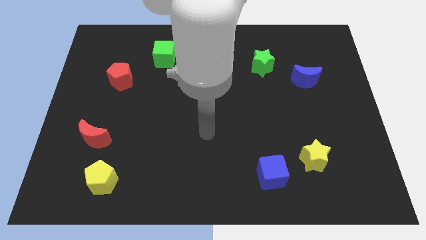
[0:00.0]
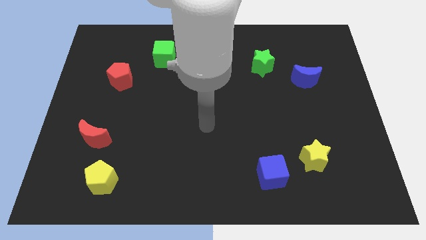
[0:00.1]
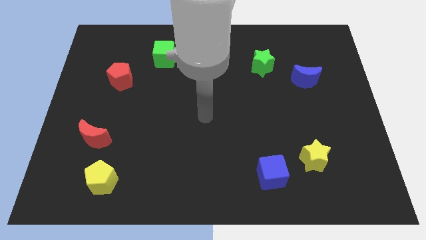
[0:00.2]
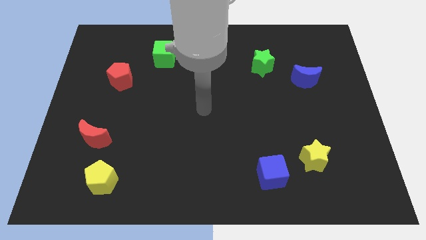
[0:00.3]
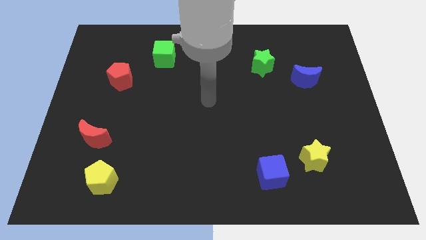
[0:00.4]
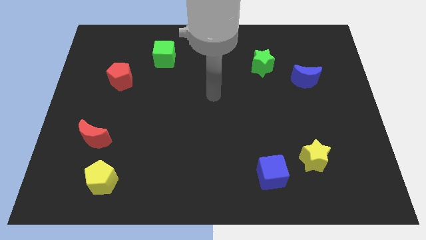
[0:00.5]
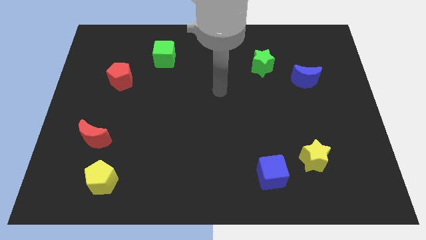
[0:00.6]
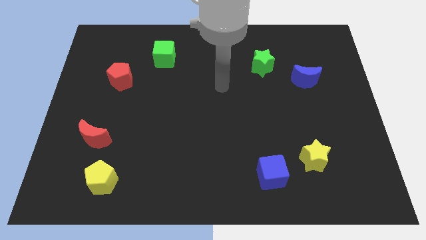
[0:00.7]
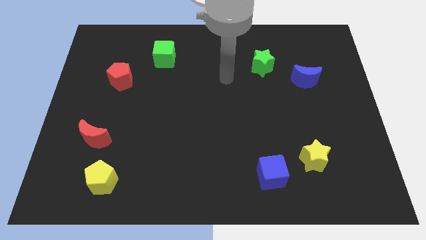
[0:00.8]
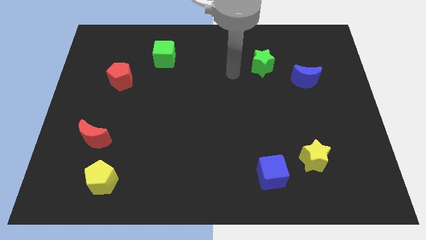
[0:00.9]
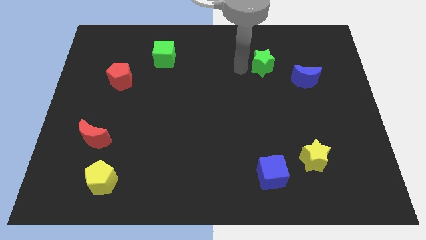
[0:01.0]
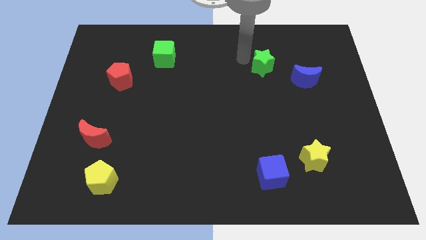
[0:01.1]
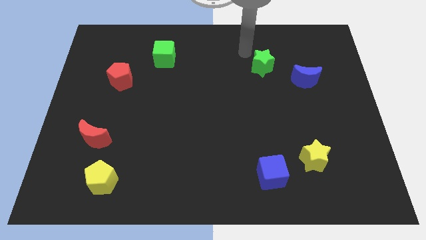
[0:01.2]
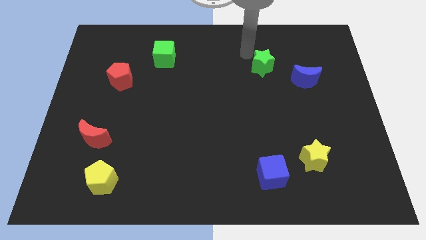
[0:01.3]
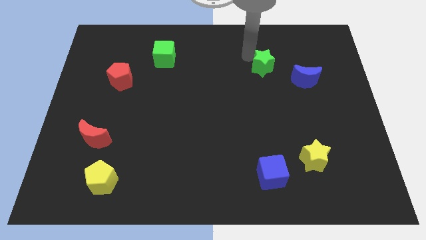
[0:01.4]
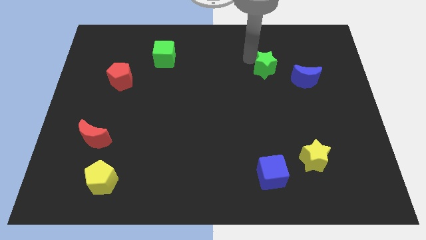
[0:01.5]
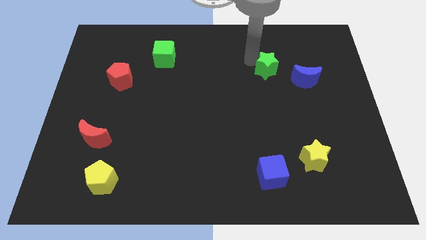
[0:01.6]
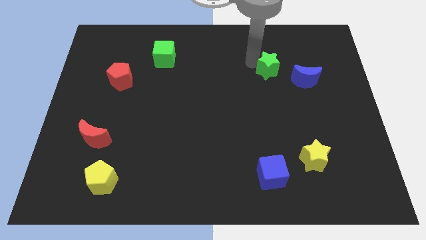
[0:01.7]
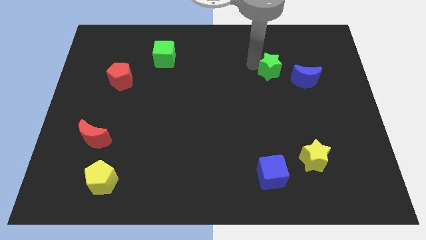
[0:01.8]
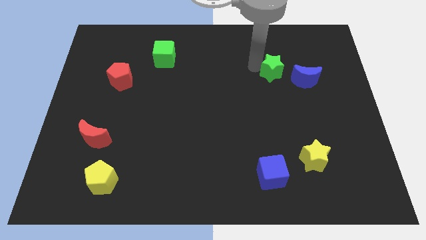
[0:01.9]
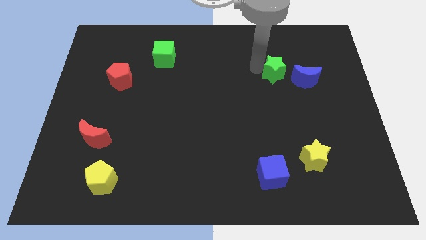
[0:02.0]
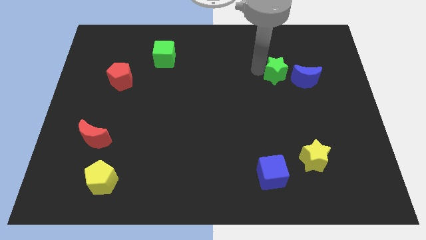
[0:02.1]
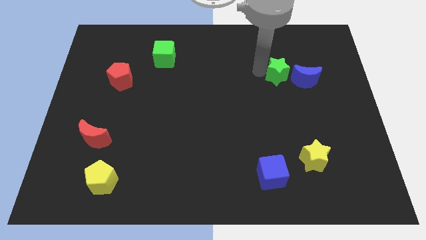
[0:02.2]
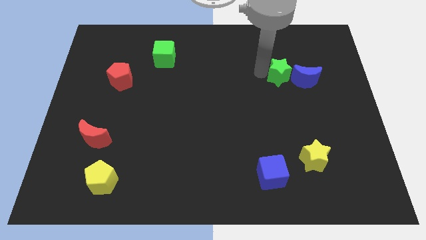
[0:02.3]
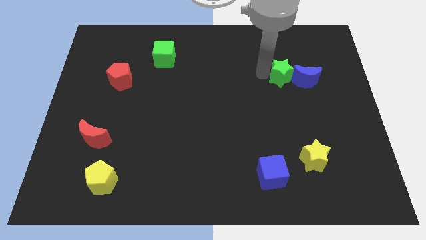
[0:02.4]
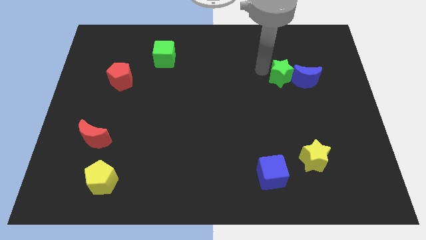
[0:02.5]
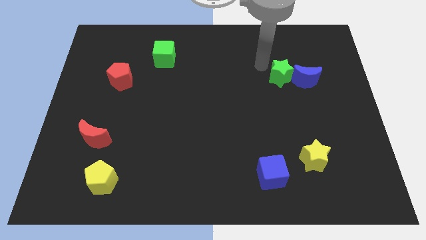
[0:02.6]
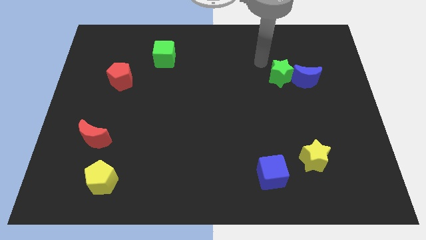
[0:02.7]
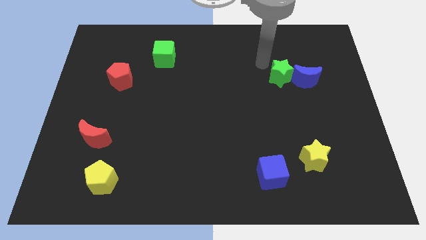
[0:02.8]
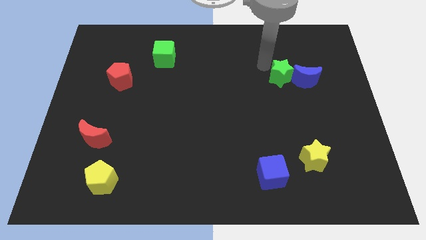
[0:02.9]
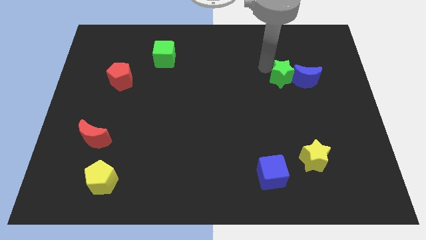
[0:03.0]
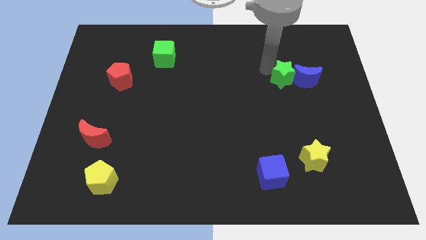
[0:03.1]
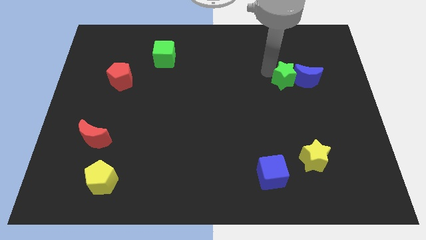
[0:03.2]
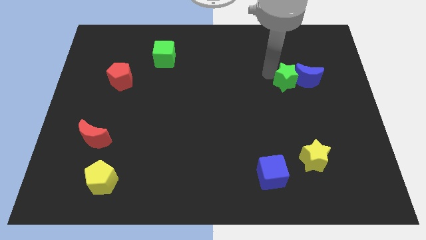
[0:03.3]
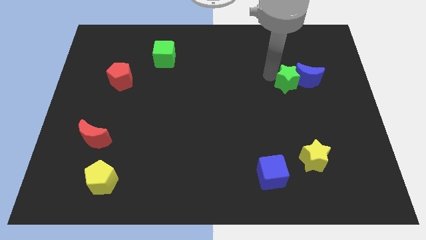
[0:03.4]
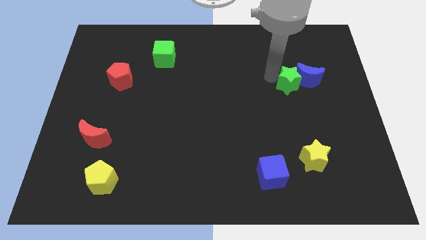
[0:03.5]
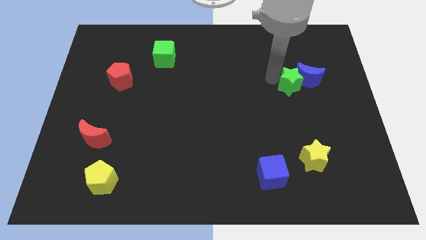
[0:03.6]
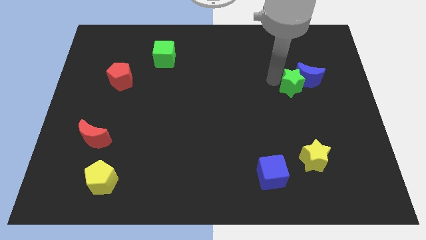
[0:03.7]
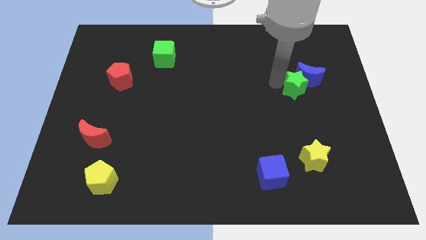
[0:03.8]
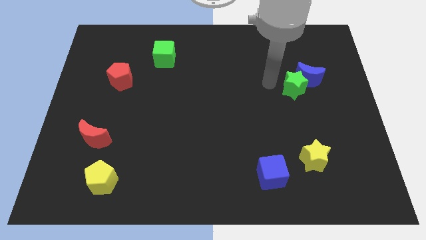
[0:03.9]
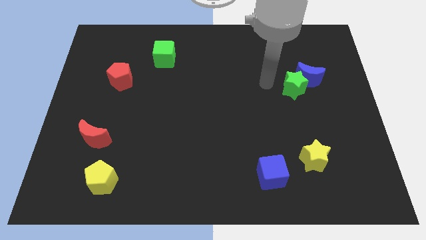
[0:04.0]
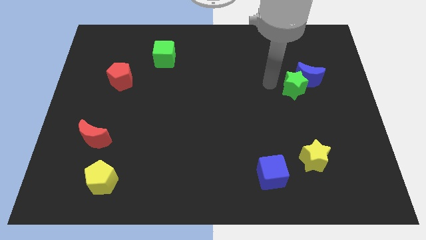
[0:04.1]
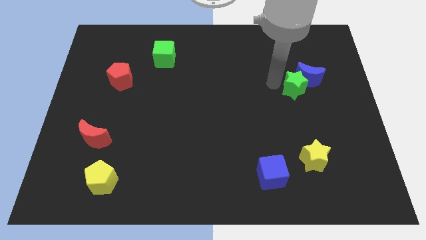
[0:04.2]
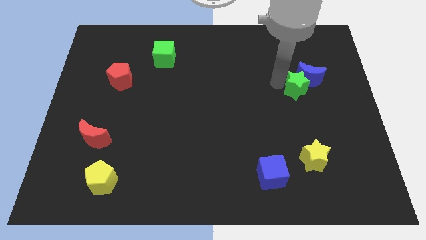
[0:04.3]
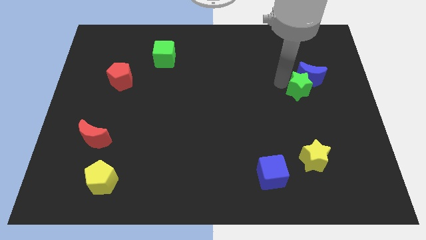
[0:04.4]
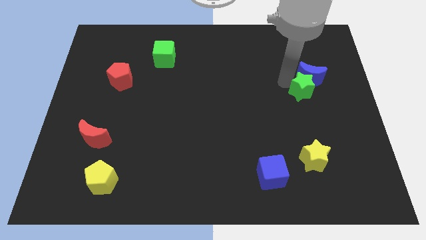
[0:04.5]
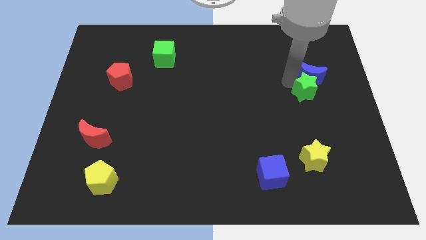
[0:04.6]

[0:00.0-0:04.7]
move the green star to the bottom right of the blue moon

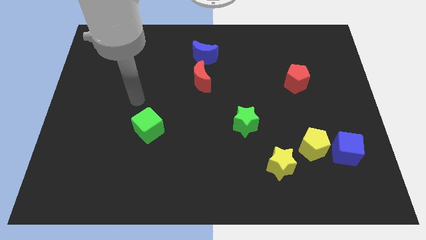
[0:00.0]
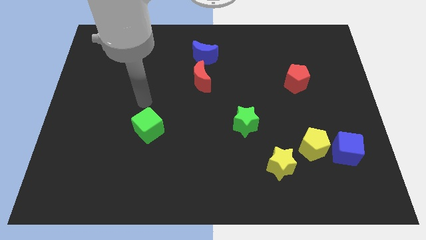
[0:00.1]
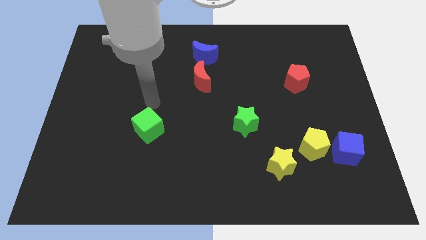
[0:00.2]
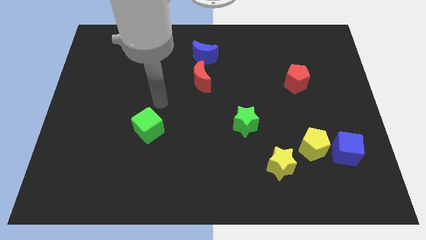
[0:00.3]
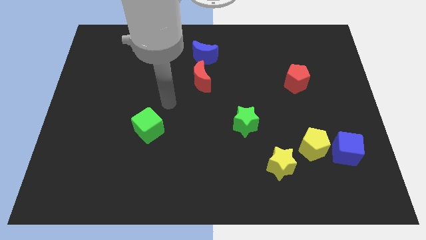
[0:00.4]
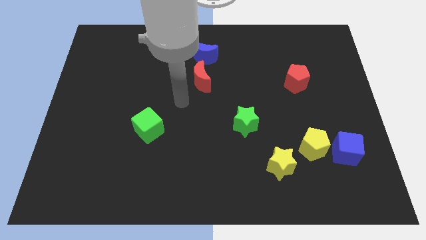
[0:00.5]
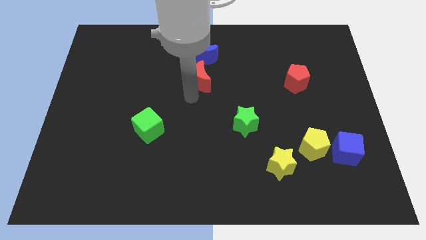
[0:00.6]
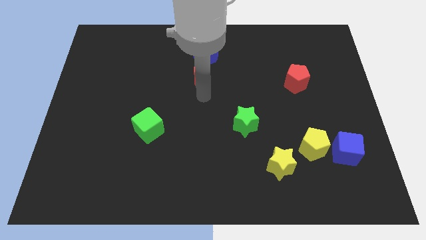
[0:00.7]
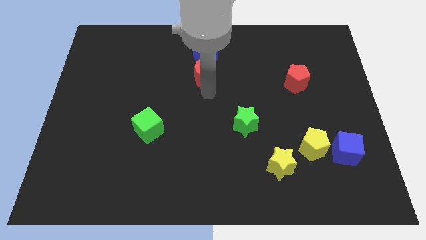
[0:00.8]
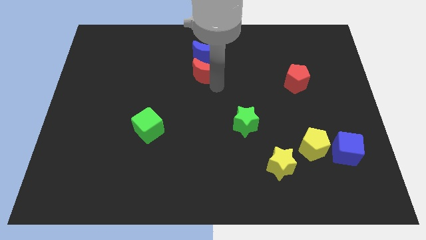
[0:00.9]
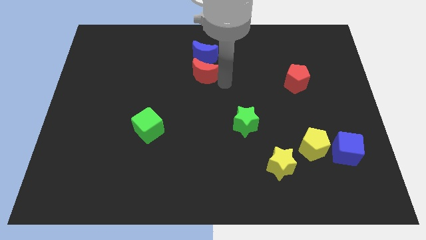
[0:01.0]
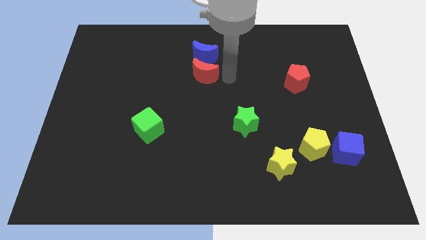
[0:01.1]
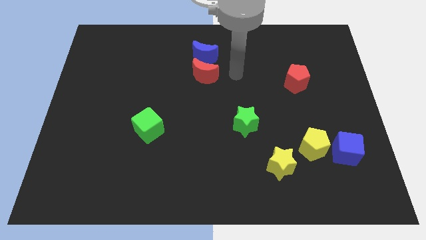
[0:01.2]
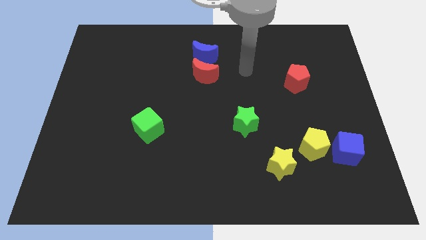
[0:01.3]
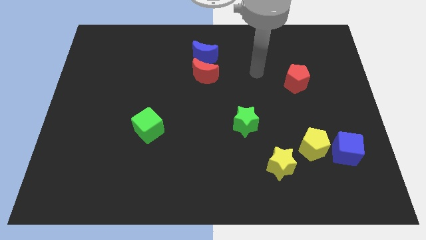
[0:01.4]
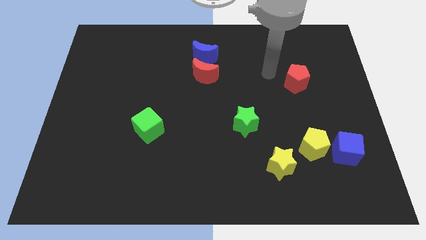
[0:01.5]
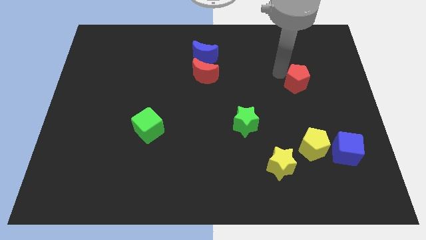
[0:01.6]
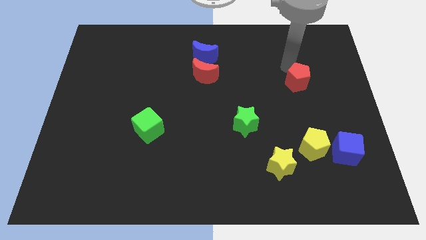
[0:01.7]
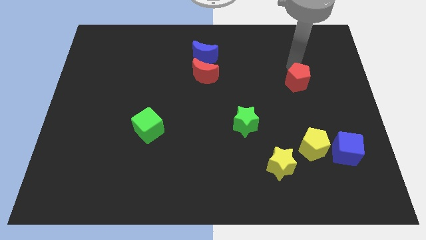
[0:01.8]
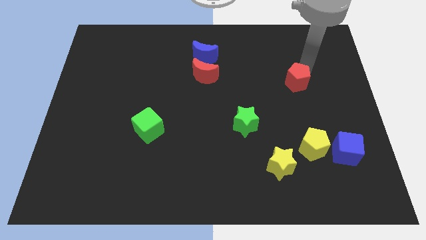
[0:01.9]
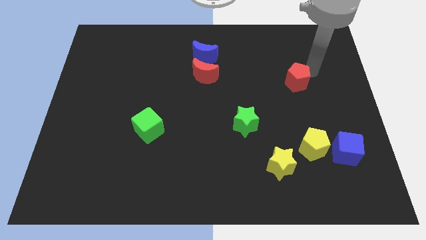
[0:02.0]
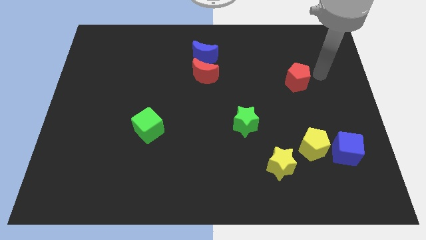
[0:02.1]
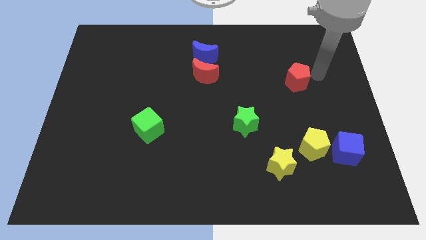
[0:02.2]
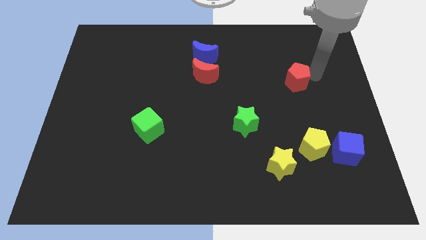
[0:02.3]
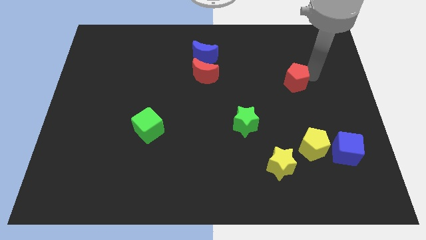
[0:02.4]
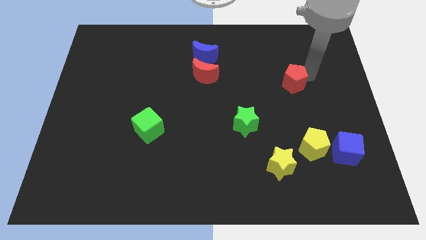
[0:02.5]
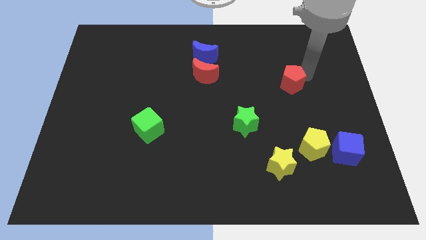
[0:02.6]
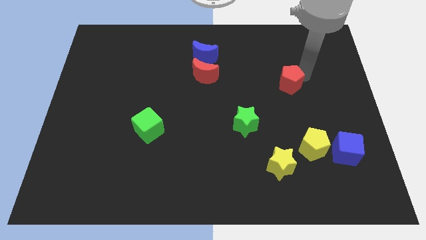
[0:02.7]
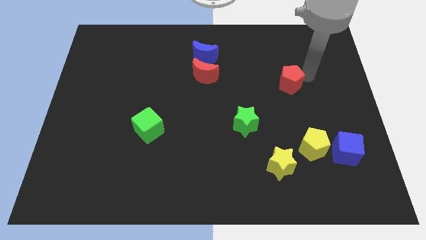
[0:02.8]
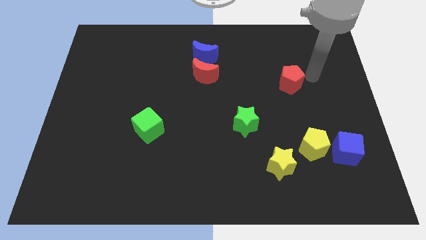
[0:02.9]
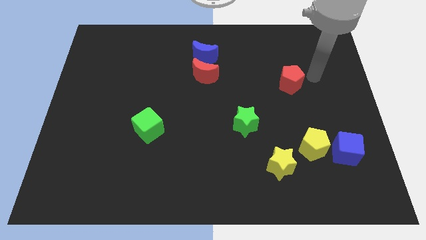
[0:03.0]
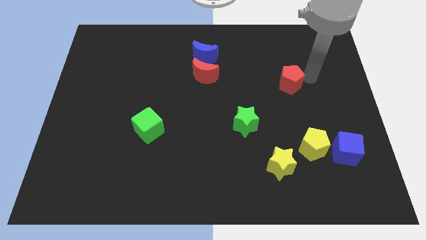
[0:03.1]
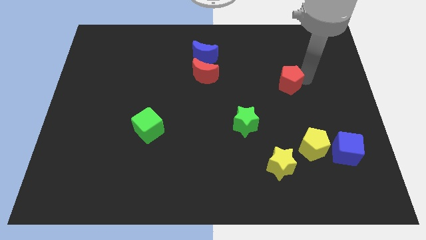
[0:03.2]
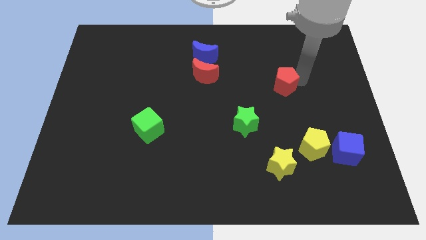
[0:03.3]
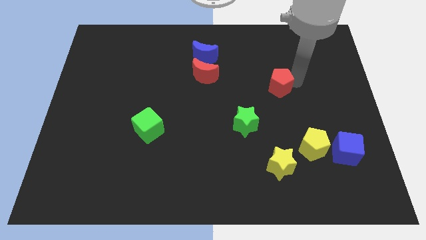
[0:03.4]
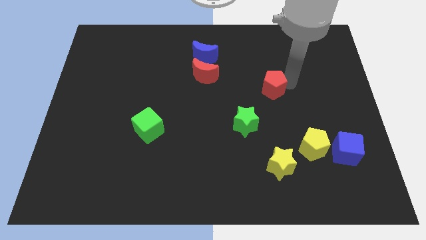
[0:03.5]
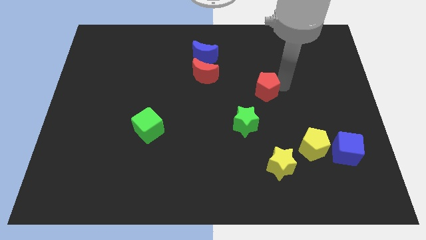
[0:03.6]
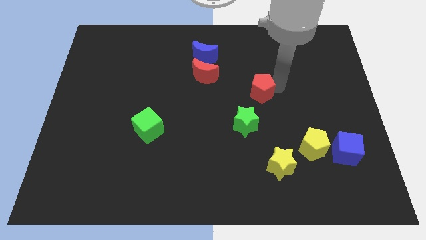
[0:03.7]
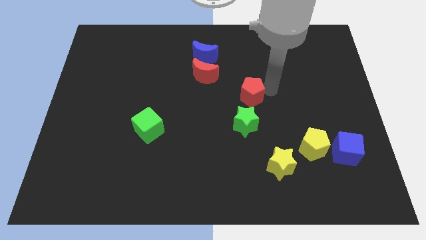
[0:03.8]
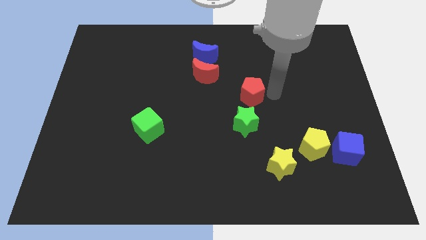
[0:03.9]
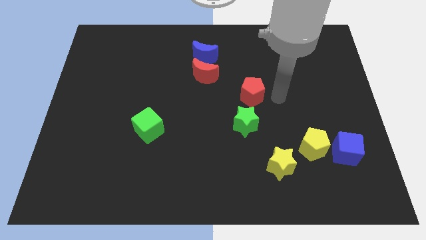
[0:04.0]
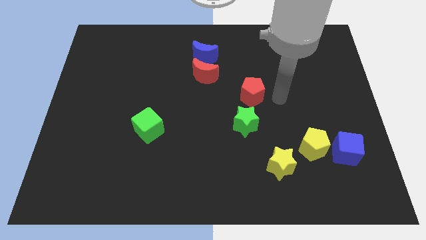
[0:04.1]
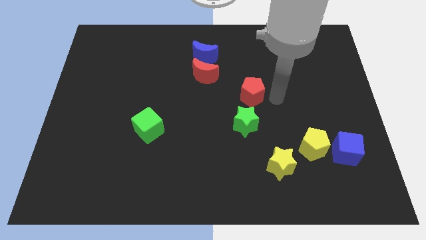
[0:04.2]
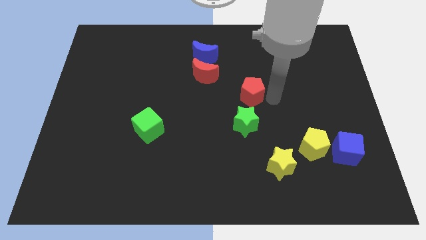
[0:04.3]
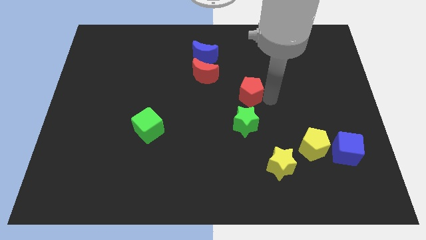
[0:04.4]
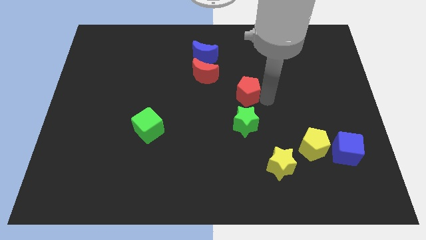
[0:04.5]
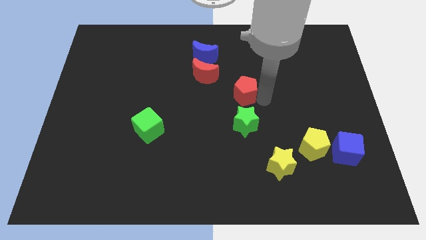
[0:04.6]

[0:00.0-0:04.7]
put the red pentagon diagonally down and to the right of the red moon
